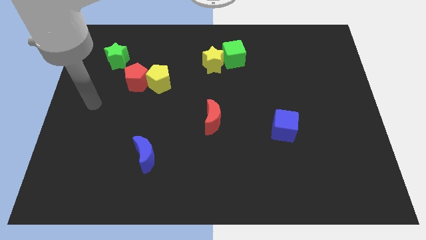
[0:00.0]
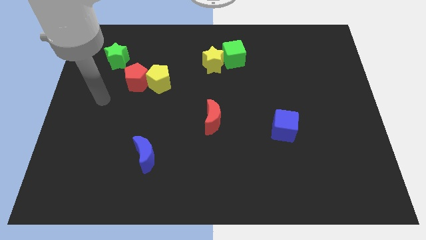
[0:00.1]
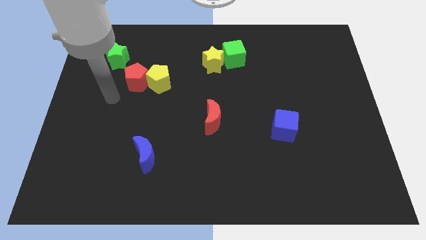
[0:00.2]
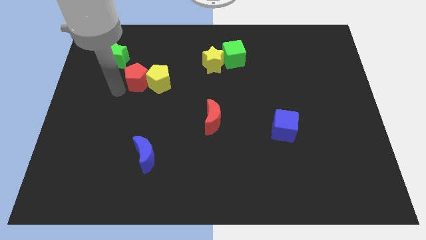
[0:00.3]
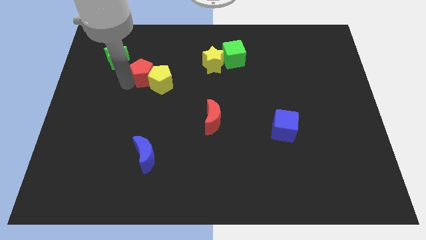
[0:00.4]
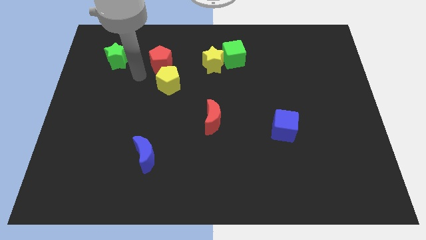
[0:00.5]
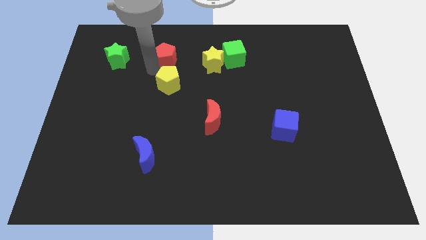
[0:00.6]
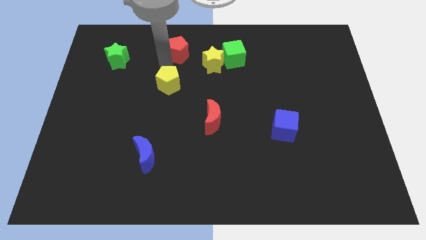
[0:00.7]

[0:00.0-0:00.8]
separate the yellow pentagon from the red pentagon

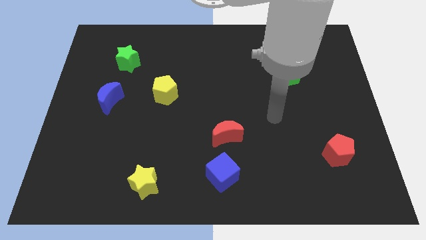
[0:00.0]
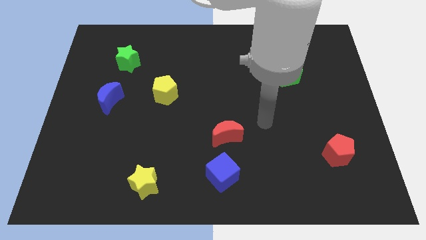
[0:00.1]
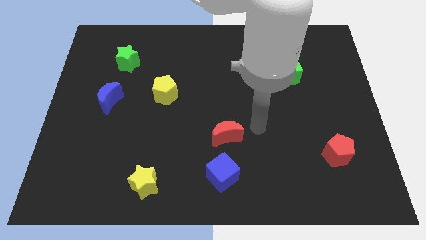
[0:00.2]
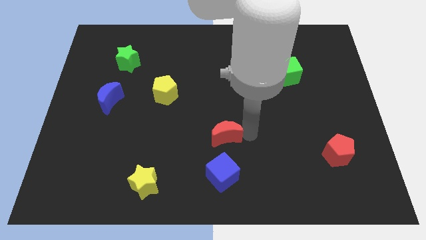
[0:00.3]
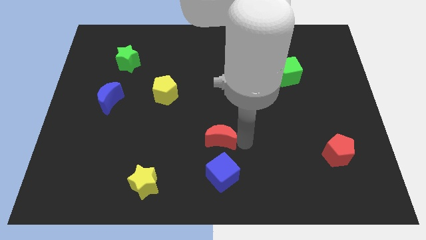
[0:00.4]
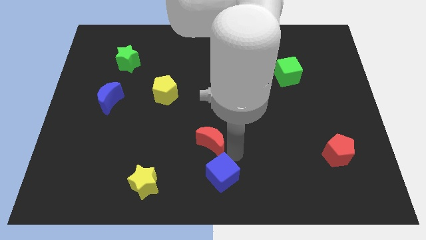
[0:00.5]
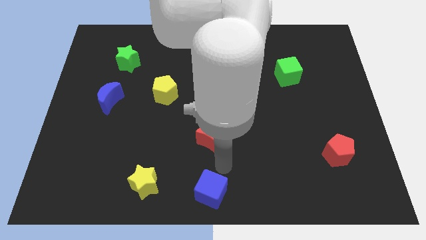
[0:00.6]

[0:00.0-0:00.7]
separate the red moon from the blue cube

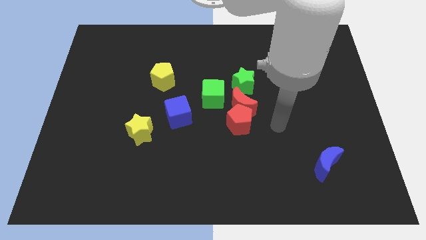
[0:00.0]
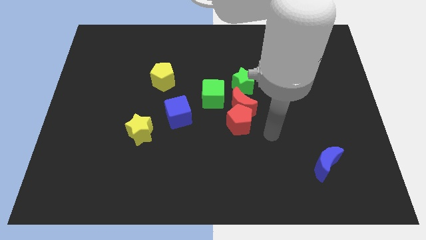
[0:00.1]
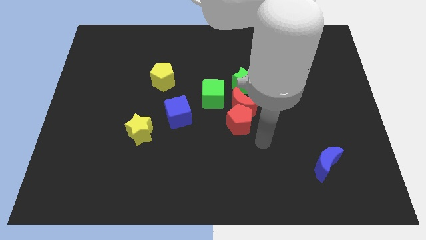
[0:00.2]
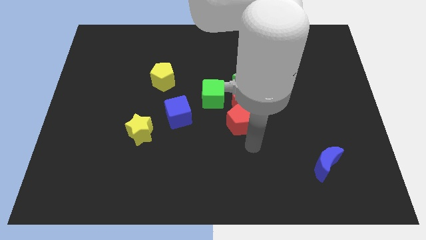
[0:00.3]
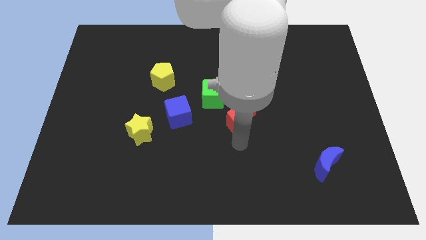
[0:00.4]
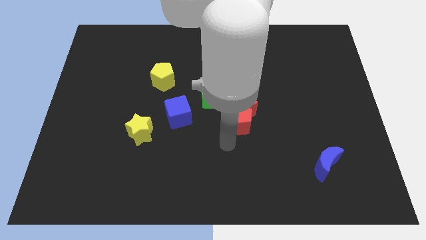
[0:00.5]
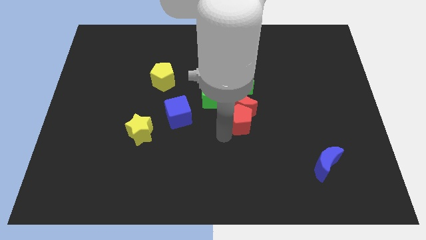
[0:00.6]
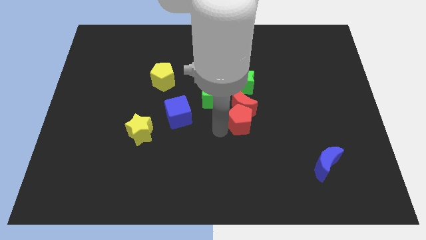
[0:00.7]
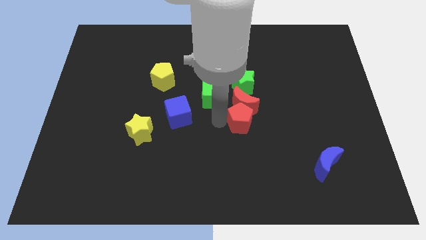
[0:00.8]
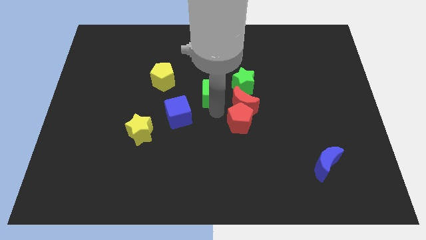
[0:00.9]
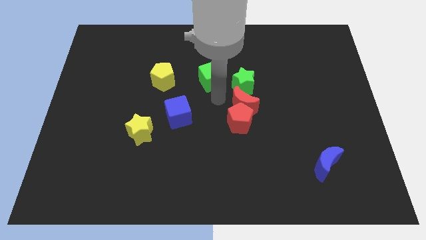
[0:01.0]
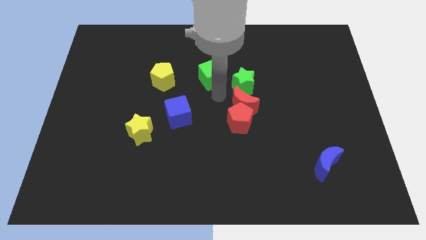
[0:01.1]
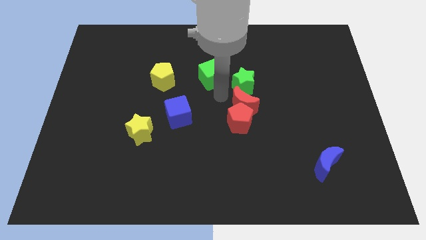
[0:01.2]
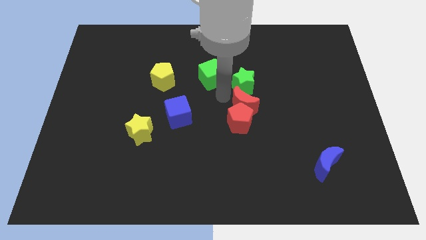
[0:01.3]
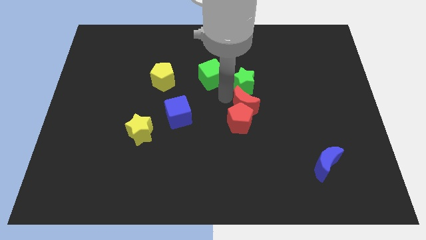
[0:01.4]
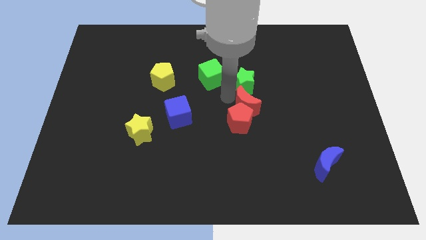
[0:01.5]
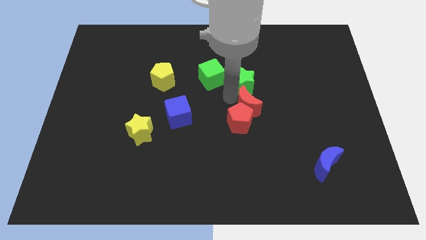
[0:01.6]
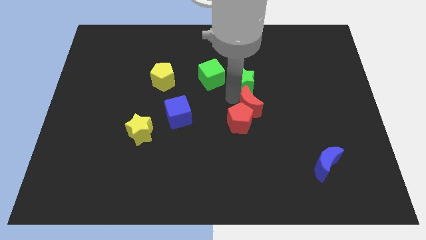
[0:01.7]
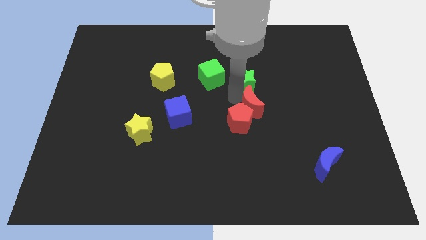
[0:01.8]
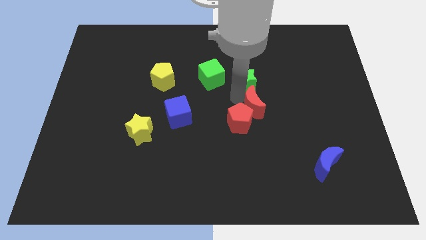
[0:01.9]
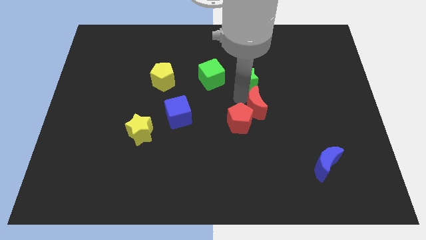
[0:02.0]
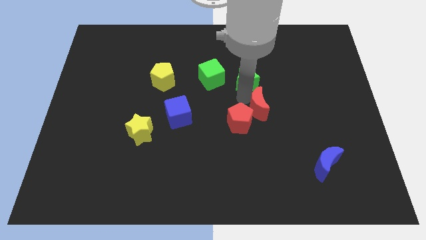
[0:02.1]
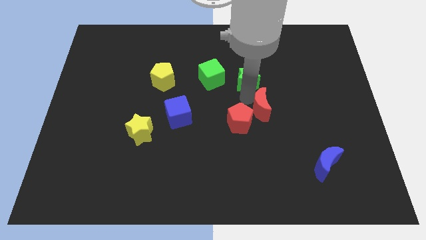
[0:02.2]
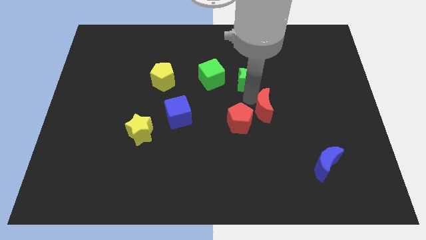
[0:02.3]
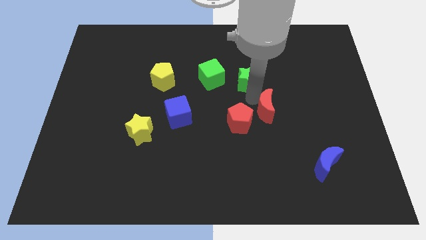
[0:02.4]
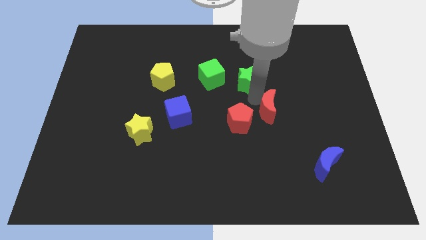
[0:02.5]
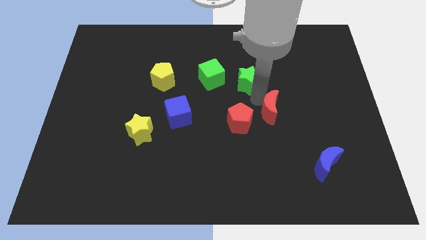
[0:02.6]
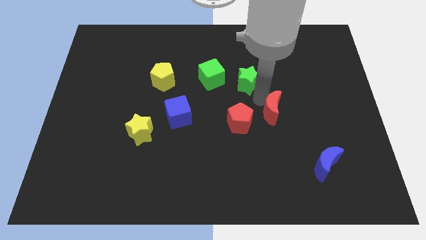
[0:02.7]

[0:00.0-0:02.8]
pull the red moon apart from the group

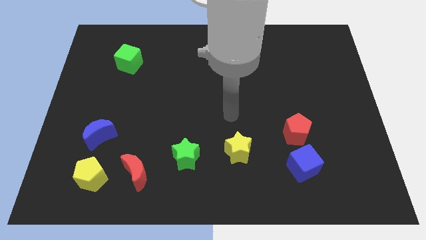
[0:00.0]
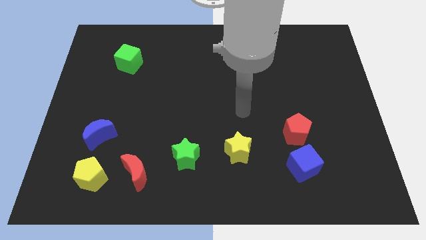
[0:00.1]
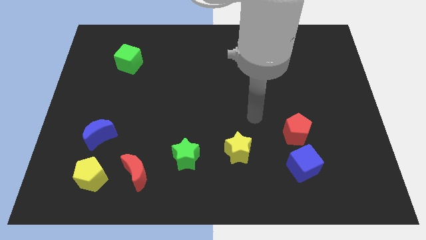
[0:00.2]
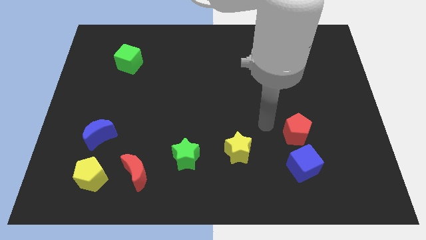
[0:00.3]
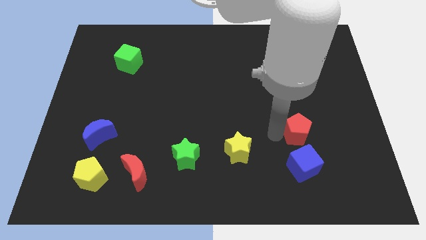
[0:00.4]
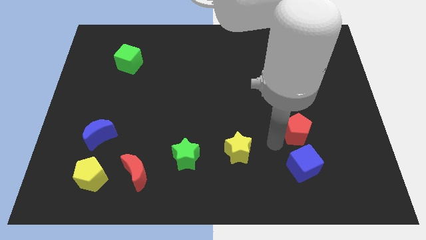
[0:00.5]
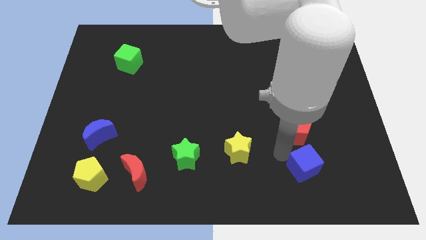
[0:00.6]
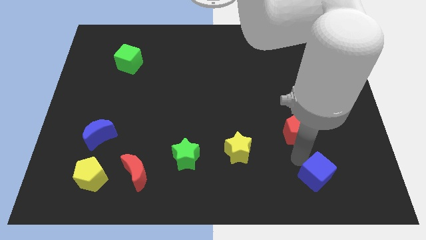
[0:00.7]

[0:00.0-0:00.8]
pull the red pentagon apart from the blue cube

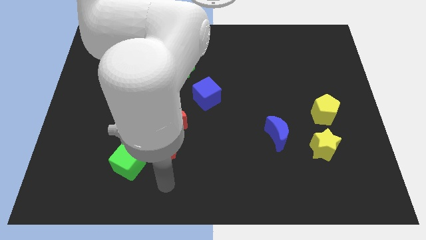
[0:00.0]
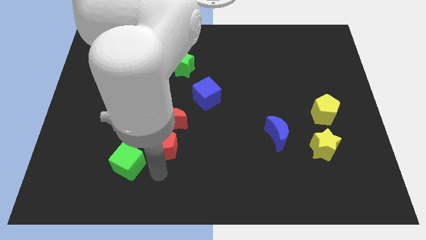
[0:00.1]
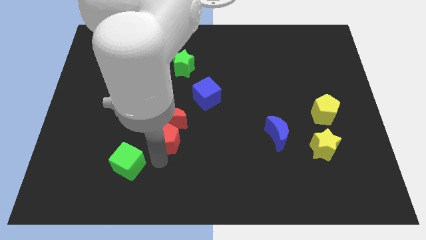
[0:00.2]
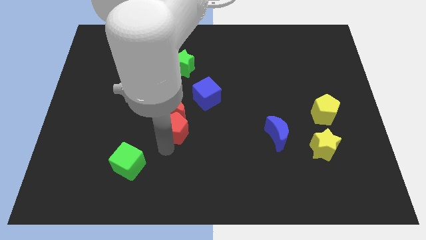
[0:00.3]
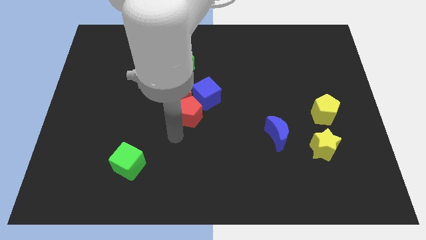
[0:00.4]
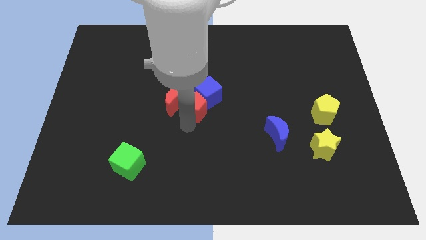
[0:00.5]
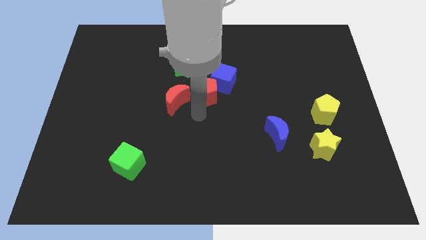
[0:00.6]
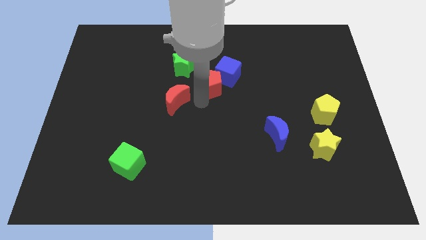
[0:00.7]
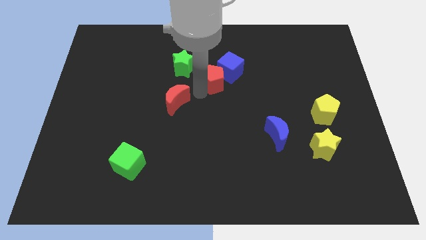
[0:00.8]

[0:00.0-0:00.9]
move the red moon away from the red pentagon

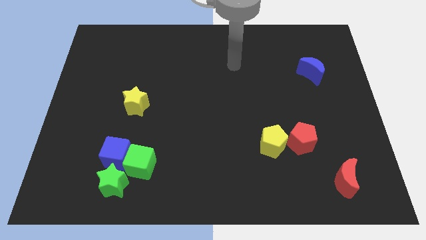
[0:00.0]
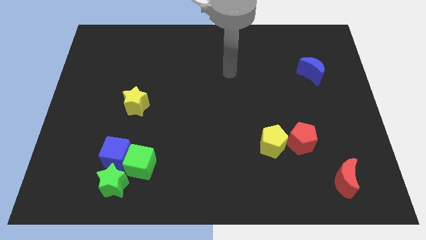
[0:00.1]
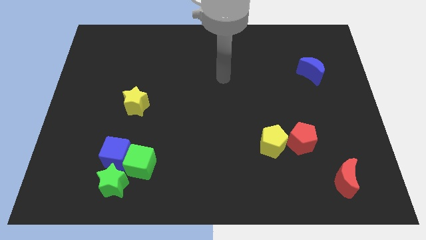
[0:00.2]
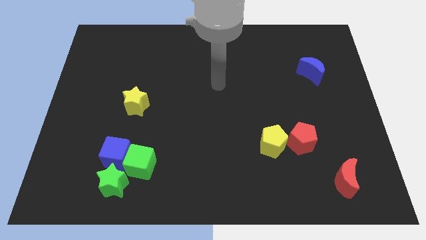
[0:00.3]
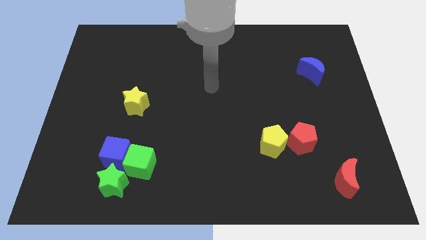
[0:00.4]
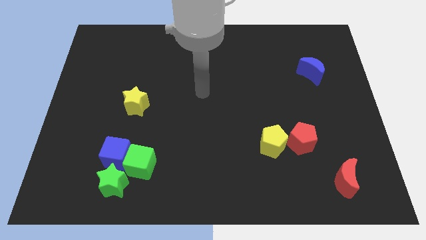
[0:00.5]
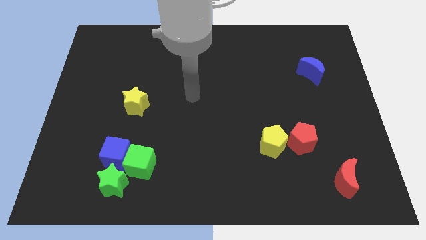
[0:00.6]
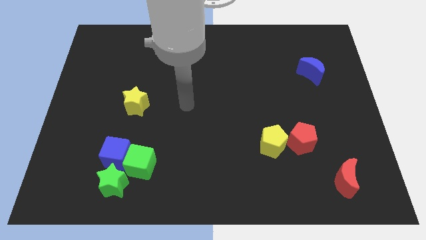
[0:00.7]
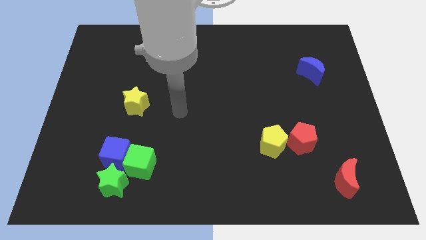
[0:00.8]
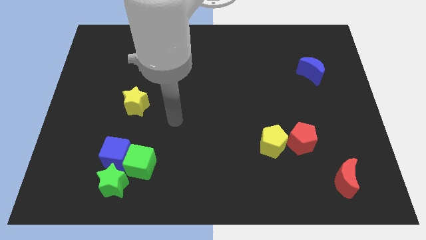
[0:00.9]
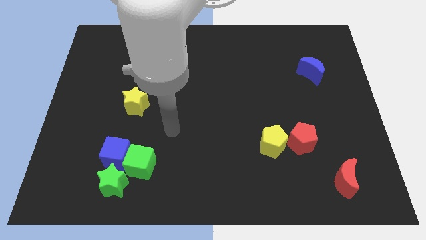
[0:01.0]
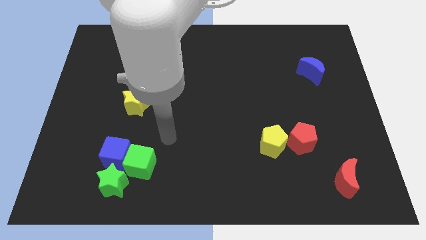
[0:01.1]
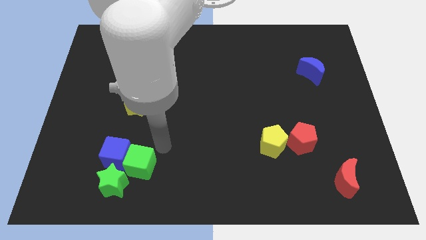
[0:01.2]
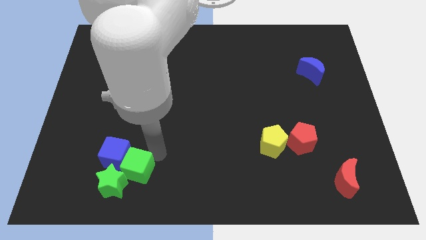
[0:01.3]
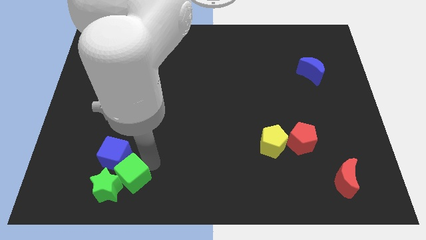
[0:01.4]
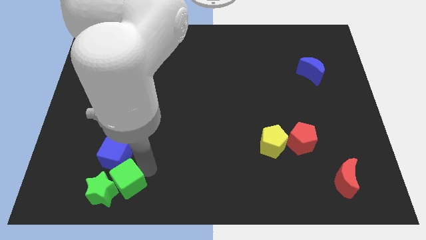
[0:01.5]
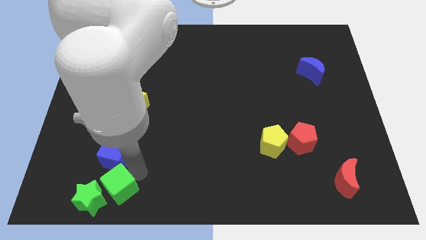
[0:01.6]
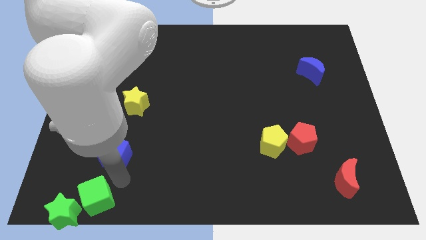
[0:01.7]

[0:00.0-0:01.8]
separate the blue cube from the green cube and green star

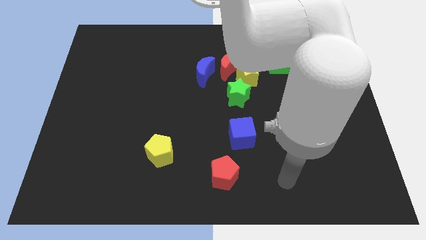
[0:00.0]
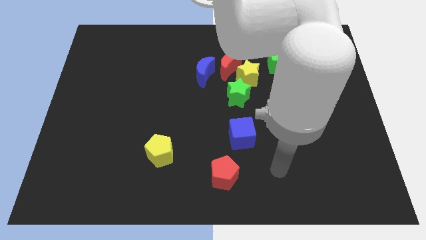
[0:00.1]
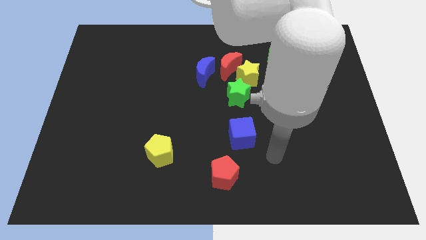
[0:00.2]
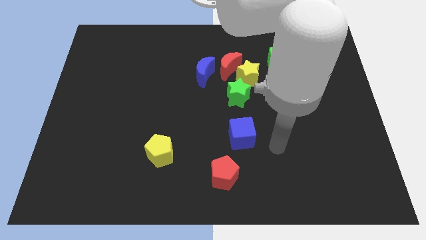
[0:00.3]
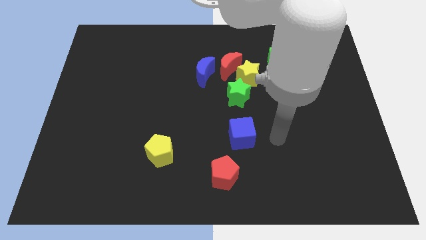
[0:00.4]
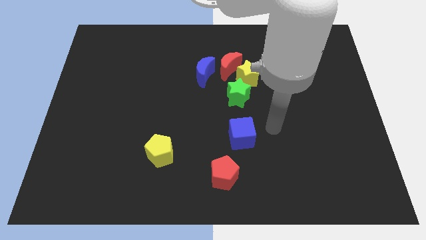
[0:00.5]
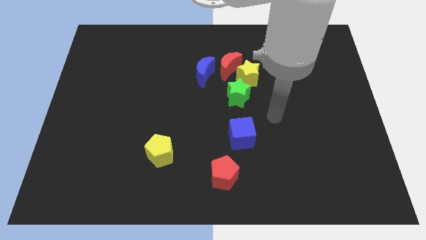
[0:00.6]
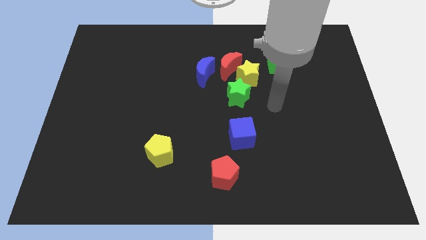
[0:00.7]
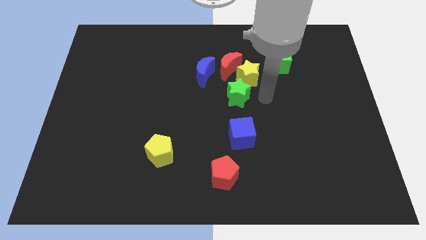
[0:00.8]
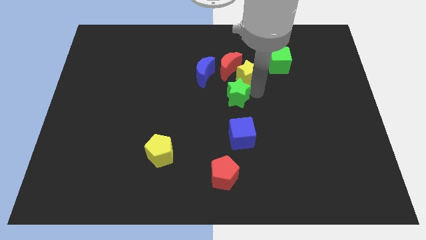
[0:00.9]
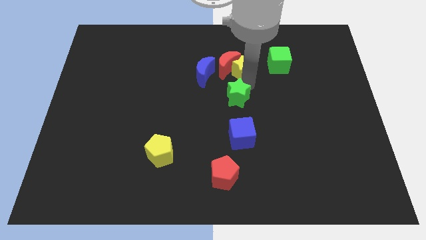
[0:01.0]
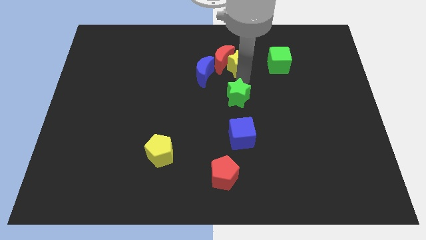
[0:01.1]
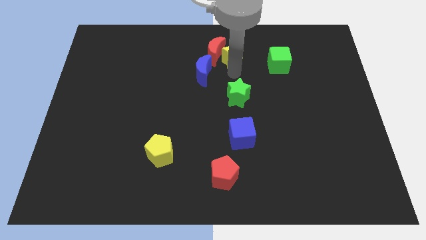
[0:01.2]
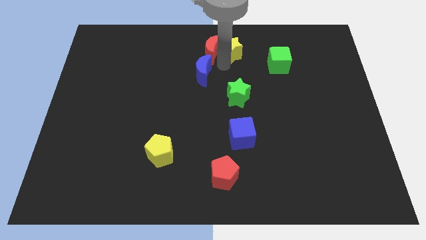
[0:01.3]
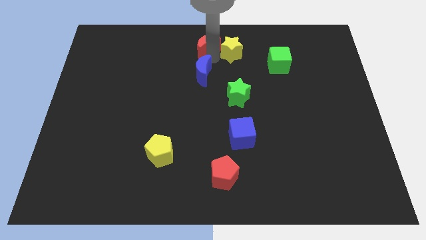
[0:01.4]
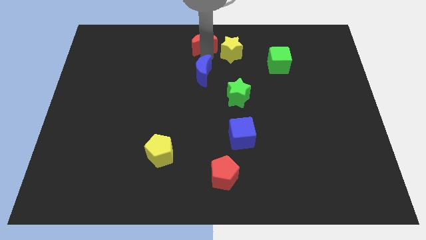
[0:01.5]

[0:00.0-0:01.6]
pull the blue moon apart from the red moon
